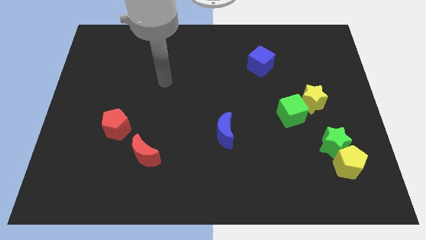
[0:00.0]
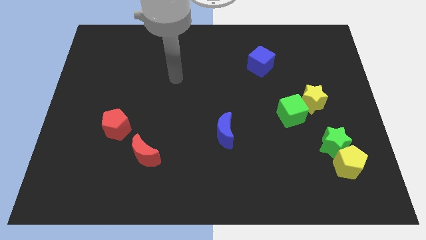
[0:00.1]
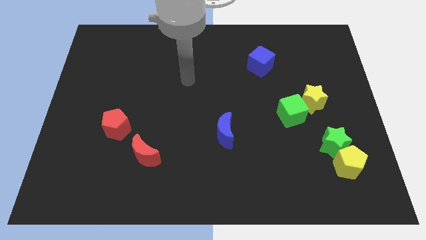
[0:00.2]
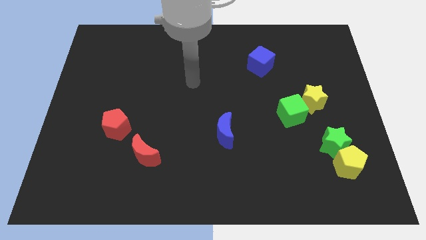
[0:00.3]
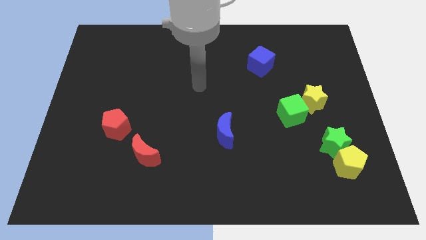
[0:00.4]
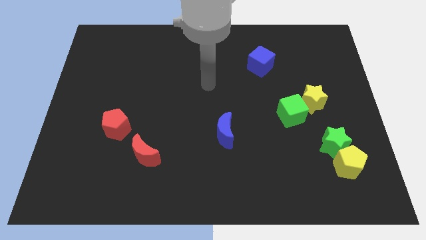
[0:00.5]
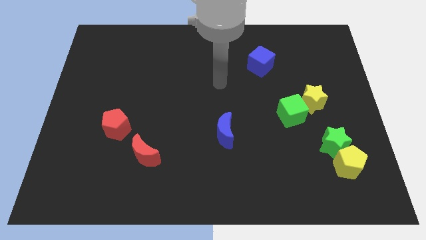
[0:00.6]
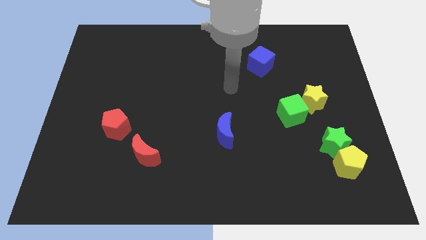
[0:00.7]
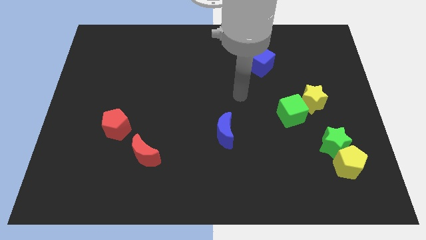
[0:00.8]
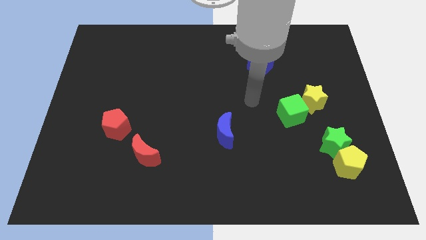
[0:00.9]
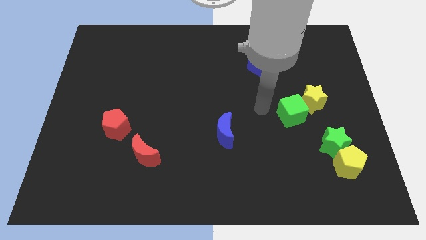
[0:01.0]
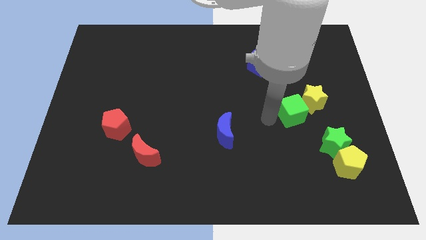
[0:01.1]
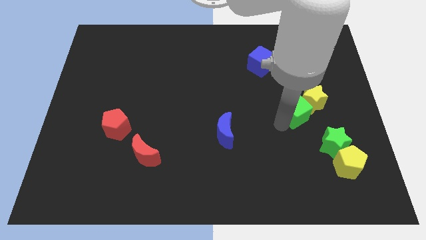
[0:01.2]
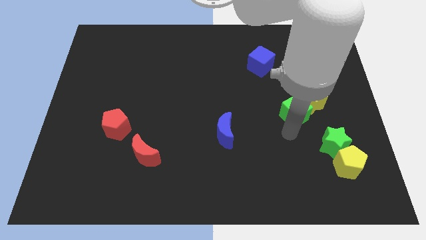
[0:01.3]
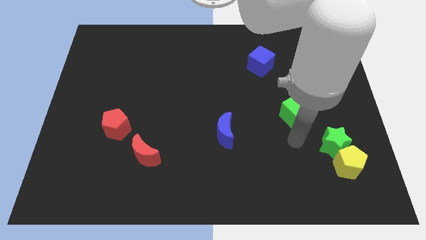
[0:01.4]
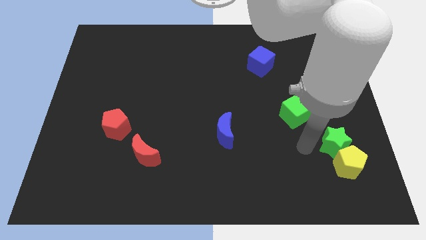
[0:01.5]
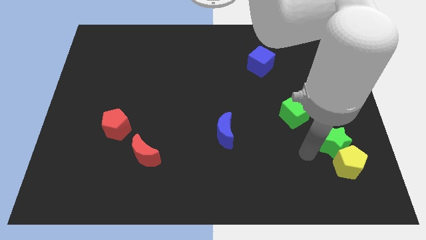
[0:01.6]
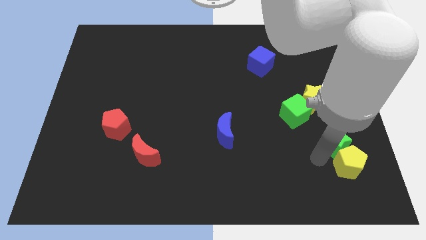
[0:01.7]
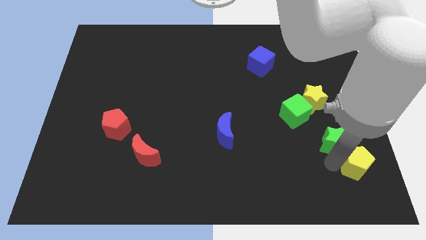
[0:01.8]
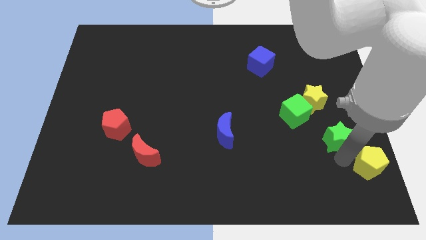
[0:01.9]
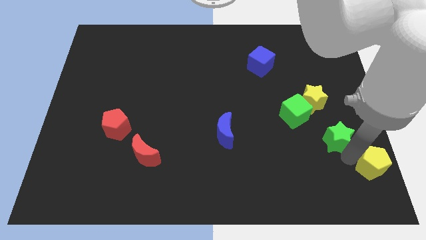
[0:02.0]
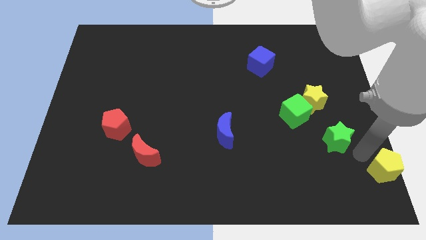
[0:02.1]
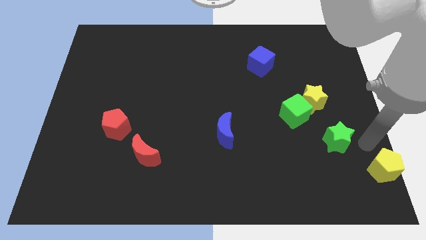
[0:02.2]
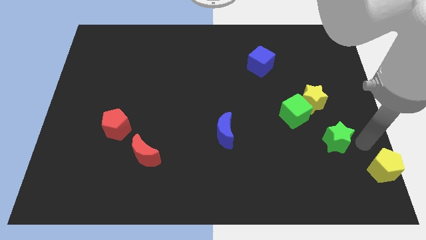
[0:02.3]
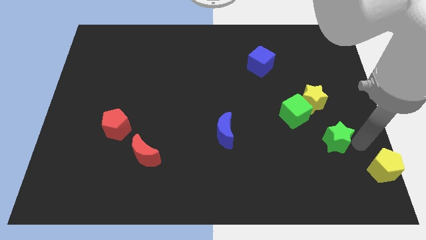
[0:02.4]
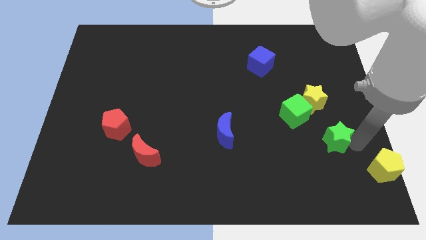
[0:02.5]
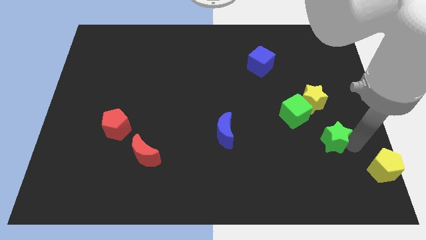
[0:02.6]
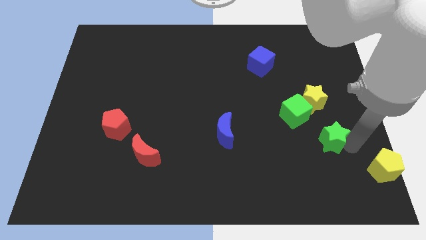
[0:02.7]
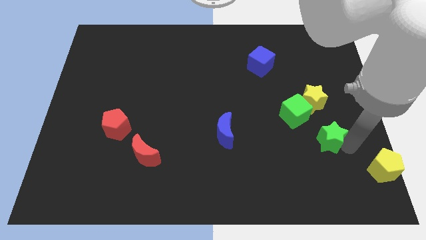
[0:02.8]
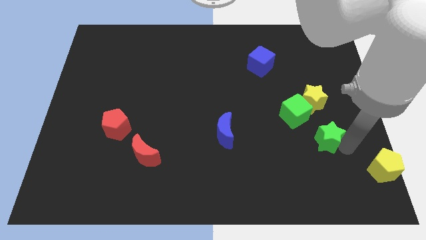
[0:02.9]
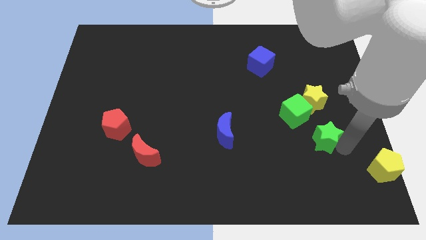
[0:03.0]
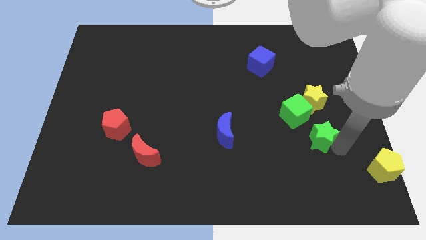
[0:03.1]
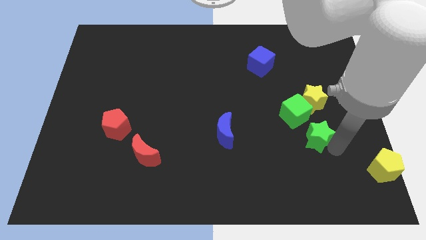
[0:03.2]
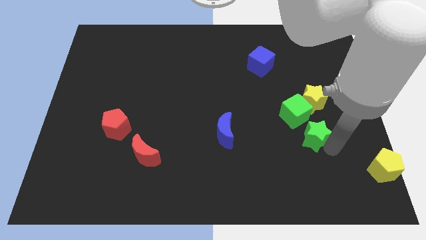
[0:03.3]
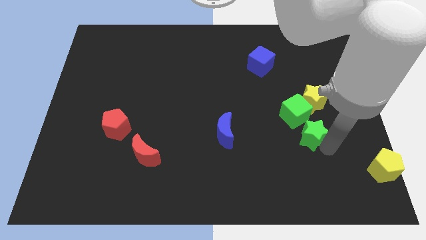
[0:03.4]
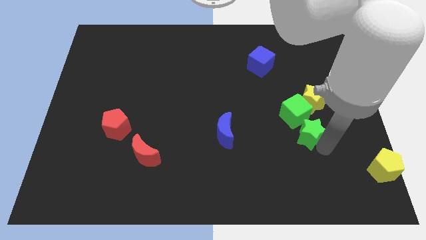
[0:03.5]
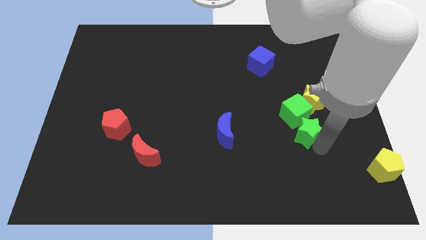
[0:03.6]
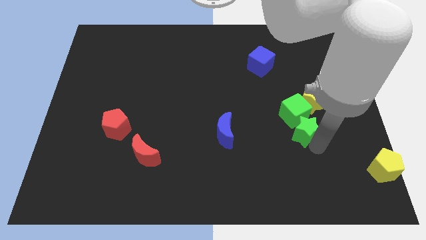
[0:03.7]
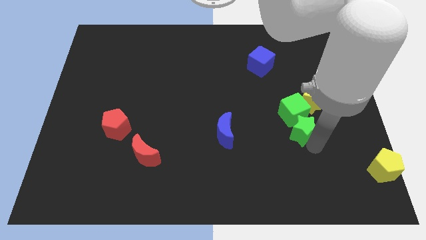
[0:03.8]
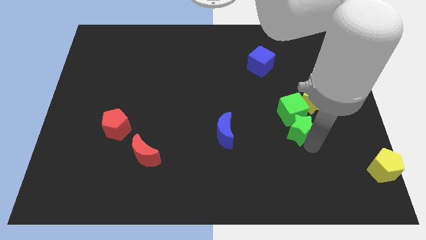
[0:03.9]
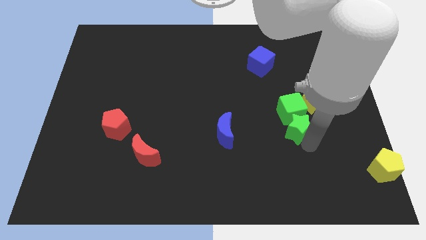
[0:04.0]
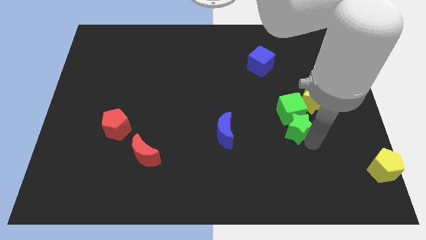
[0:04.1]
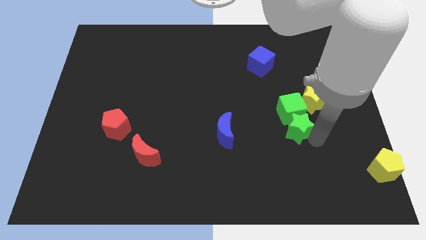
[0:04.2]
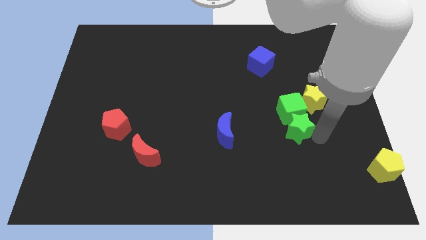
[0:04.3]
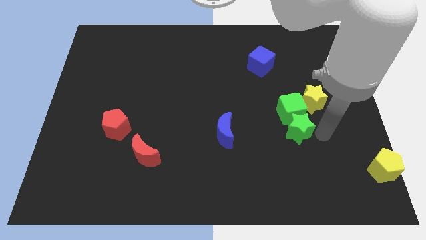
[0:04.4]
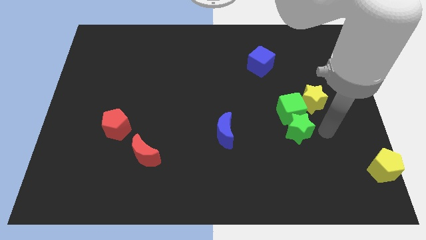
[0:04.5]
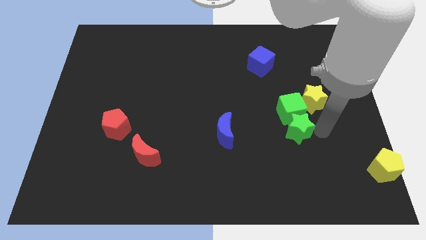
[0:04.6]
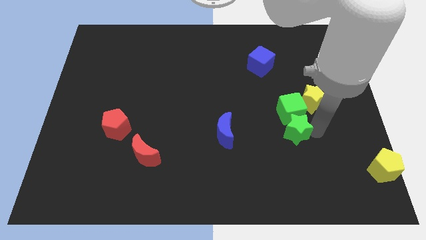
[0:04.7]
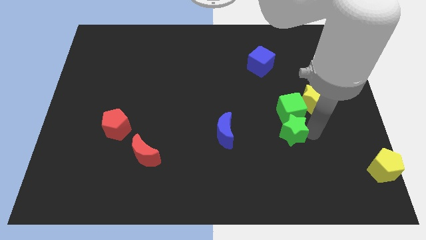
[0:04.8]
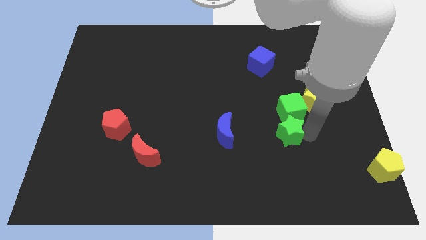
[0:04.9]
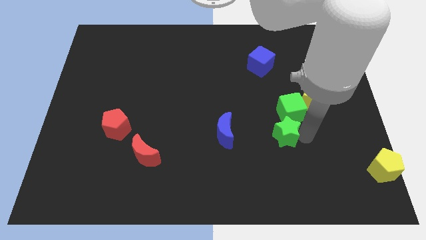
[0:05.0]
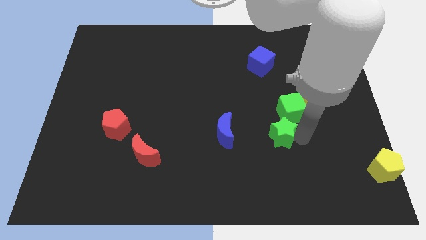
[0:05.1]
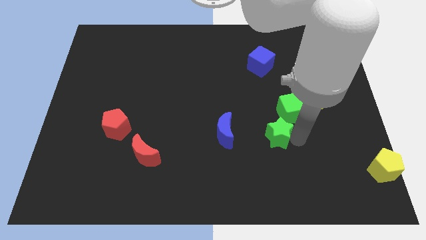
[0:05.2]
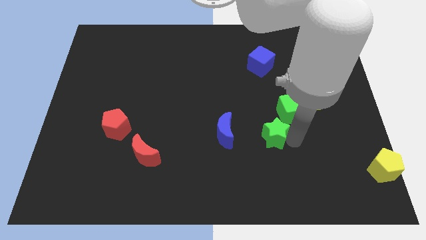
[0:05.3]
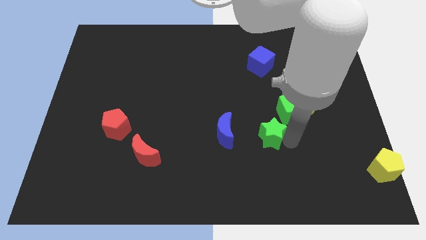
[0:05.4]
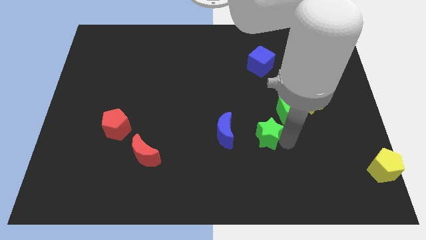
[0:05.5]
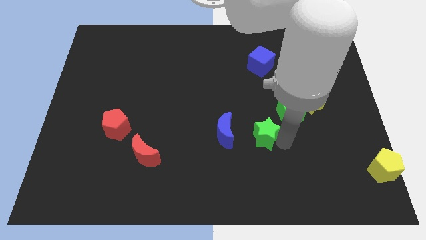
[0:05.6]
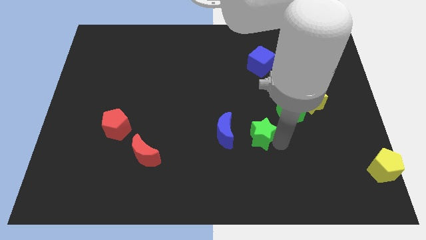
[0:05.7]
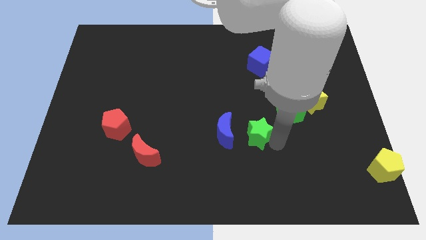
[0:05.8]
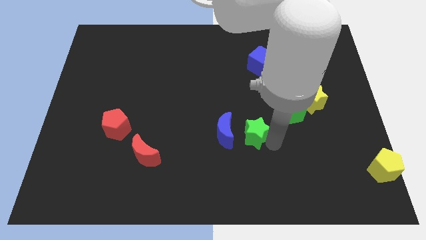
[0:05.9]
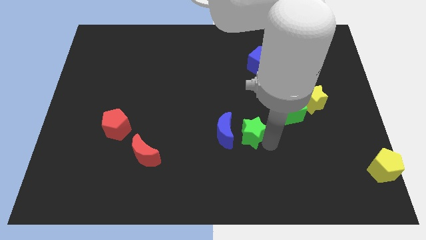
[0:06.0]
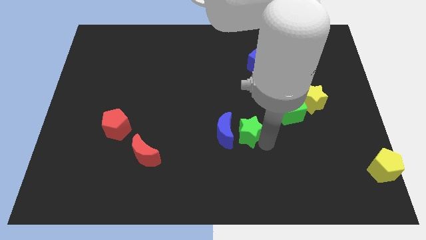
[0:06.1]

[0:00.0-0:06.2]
move the green star to the center

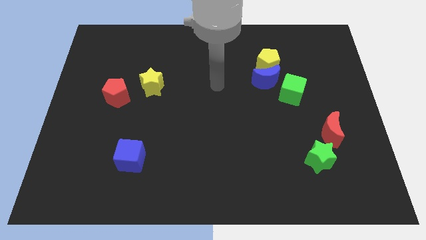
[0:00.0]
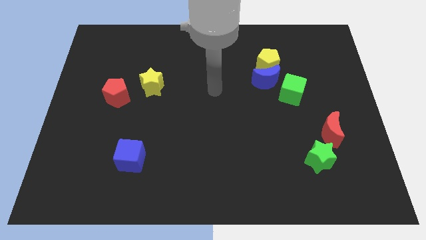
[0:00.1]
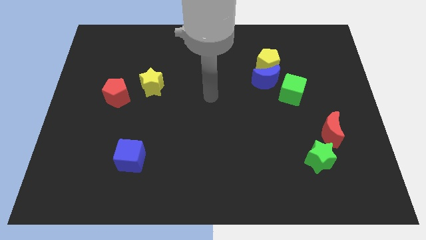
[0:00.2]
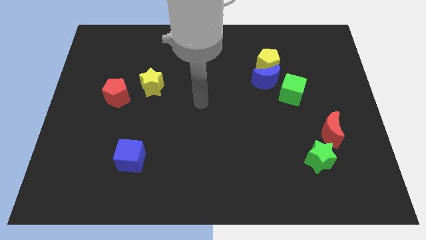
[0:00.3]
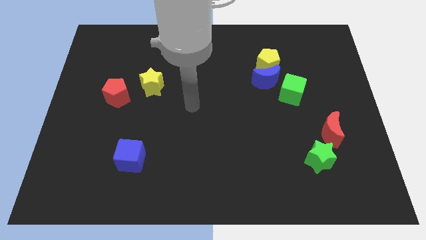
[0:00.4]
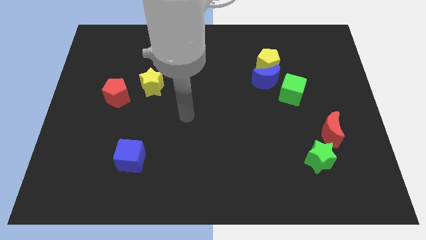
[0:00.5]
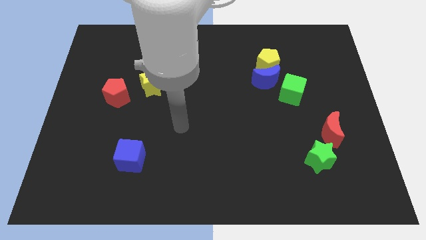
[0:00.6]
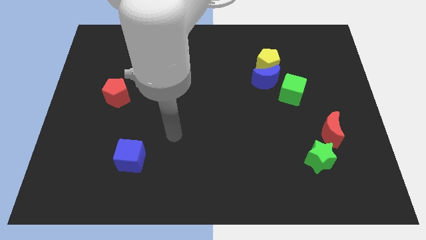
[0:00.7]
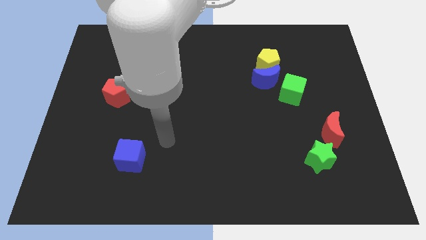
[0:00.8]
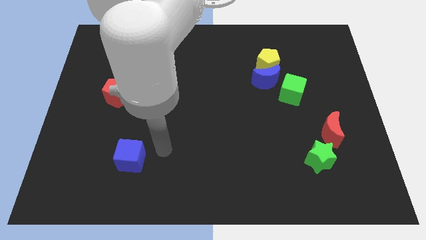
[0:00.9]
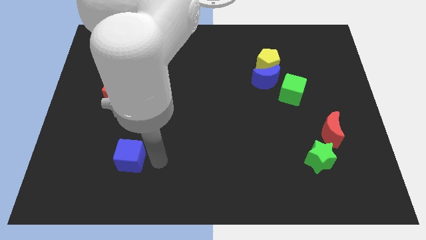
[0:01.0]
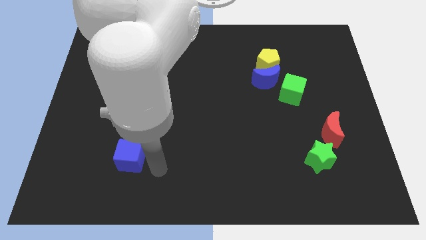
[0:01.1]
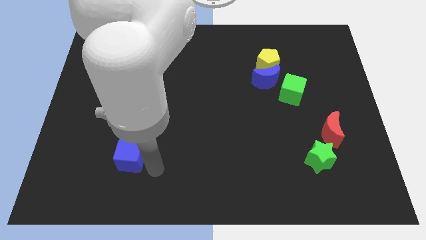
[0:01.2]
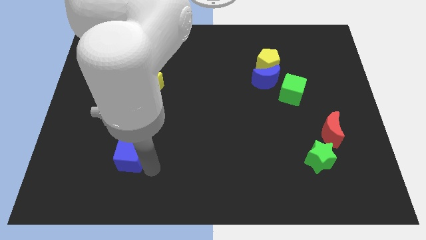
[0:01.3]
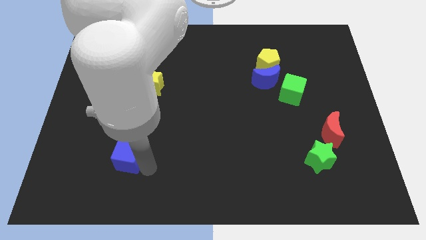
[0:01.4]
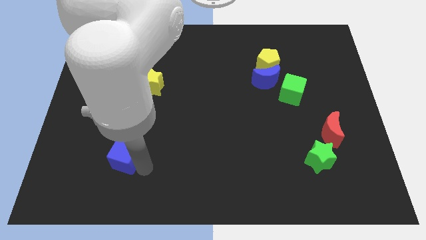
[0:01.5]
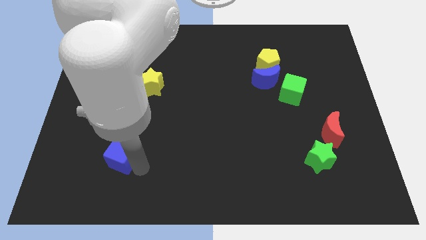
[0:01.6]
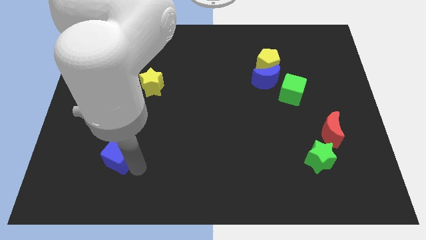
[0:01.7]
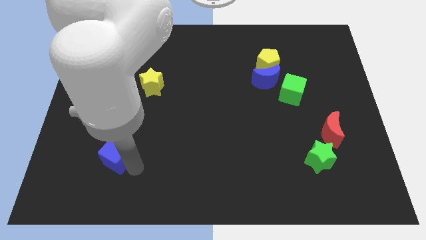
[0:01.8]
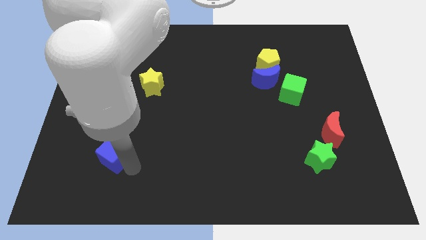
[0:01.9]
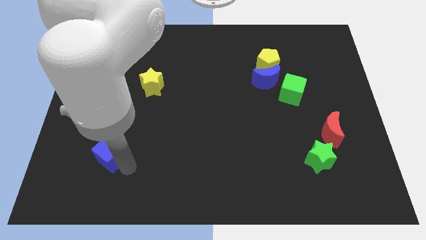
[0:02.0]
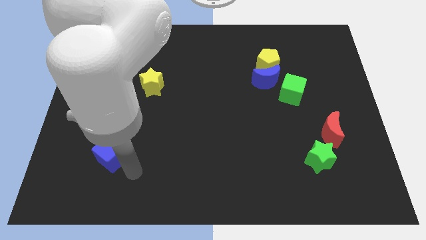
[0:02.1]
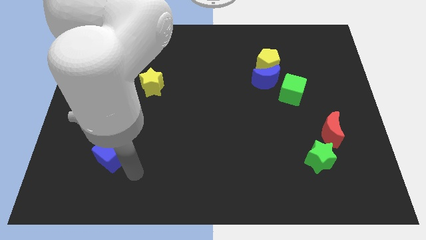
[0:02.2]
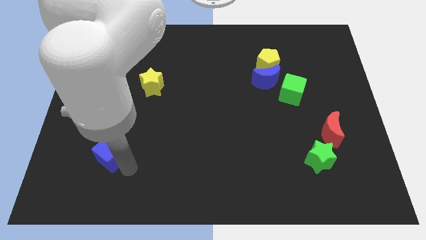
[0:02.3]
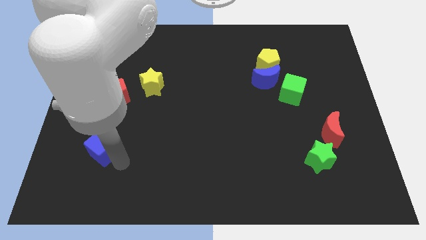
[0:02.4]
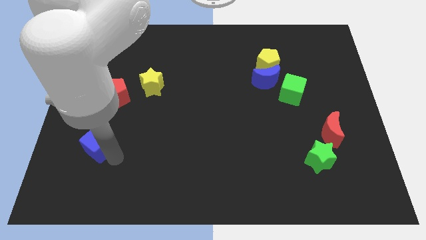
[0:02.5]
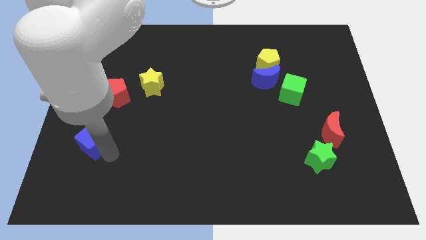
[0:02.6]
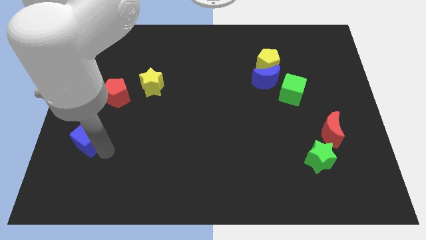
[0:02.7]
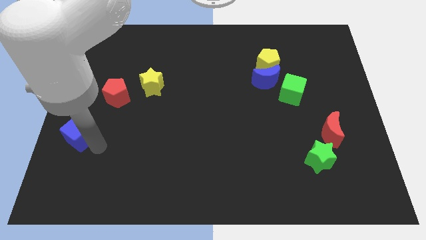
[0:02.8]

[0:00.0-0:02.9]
slide the blue cube to the left side
